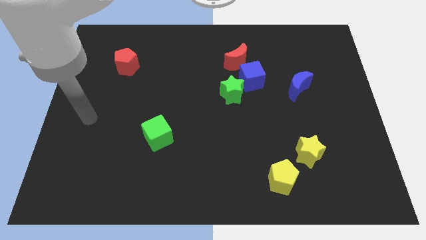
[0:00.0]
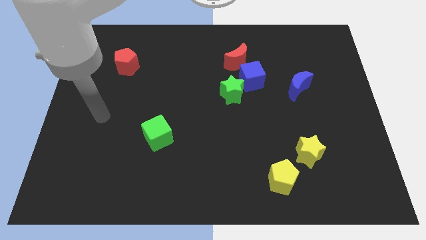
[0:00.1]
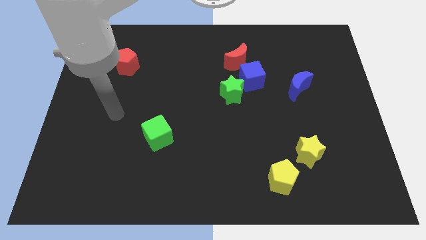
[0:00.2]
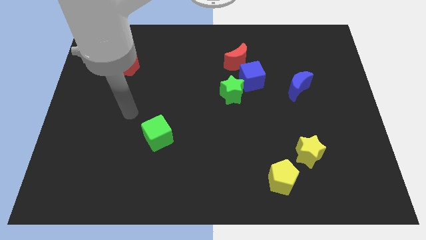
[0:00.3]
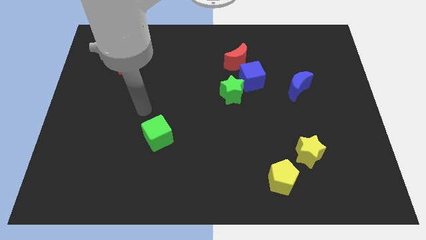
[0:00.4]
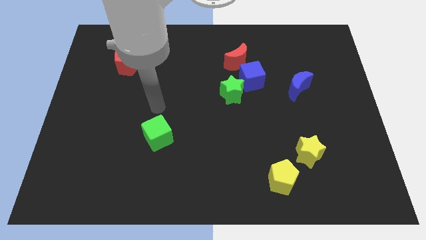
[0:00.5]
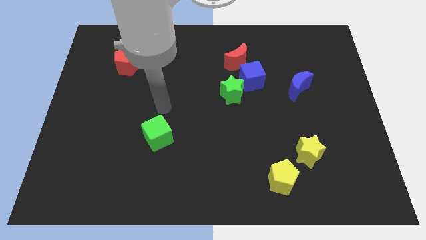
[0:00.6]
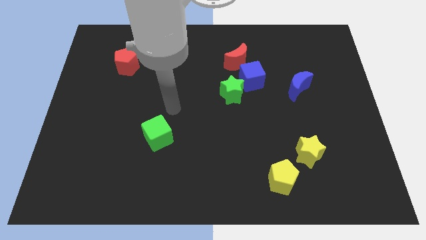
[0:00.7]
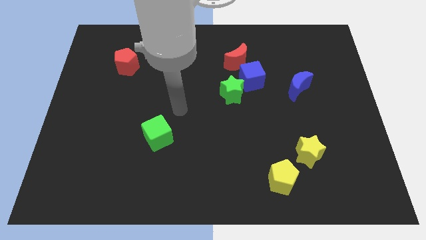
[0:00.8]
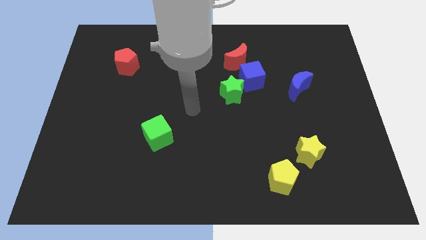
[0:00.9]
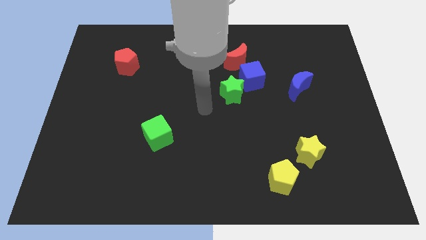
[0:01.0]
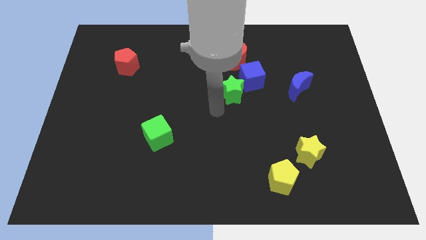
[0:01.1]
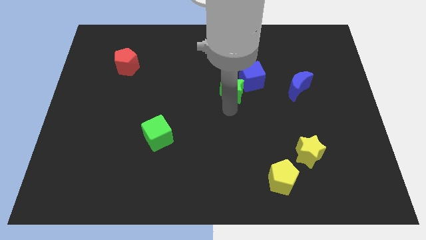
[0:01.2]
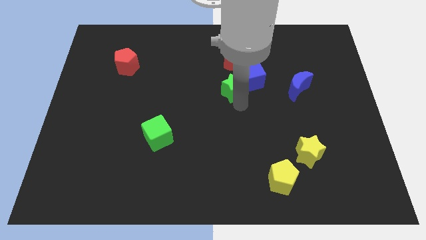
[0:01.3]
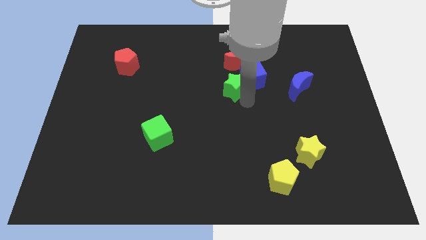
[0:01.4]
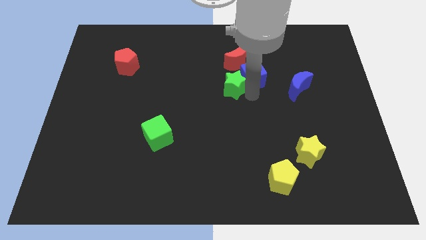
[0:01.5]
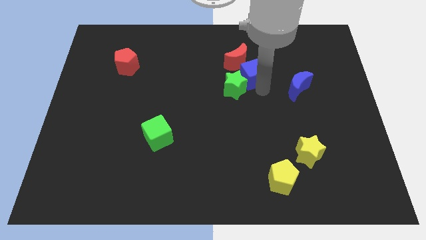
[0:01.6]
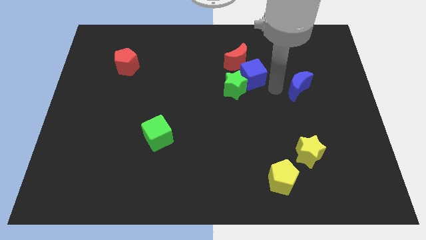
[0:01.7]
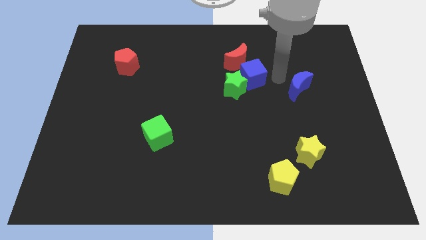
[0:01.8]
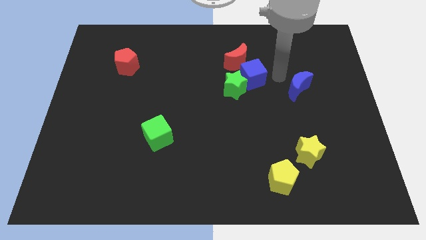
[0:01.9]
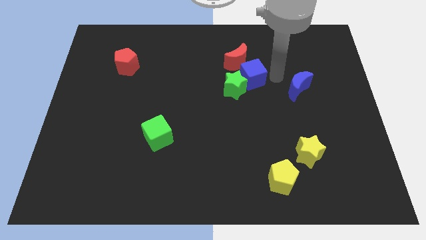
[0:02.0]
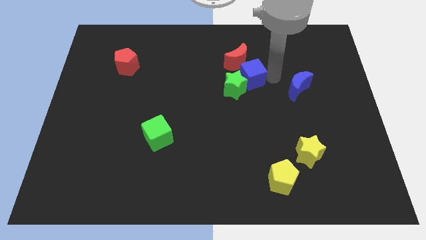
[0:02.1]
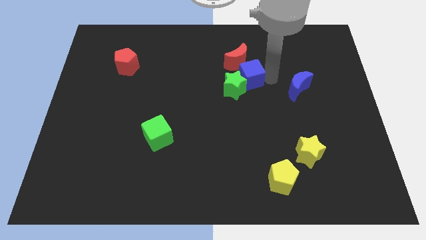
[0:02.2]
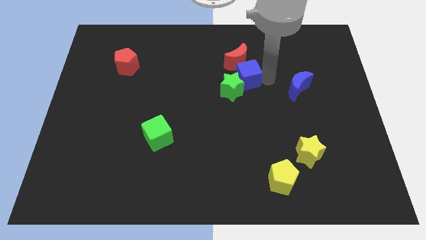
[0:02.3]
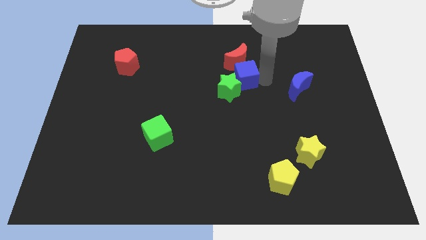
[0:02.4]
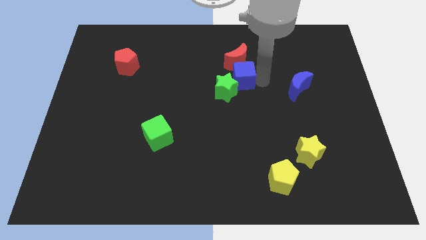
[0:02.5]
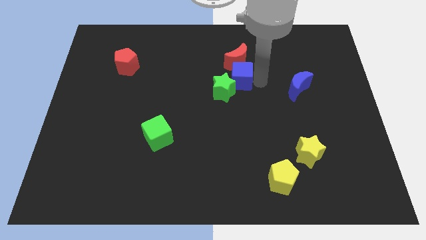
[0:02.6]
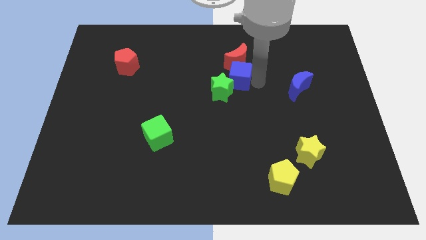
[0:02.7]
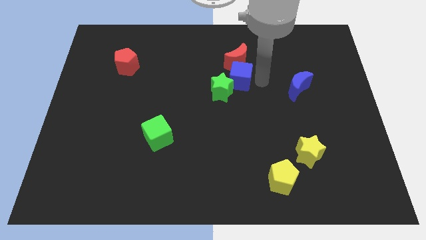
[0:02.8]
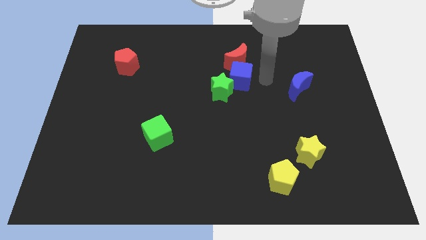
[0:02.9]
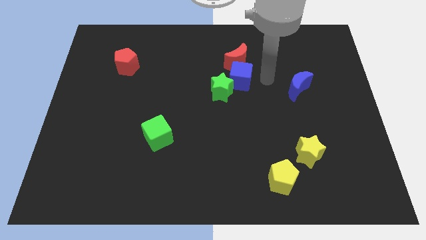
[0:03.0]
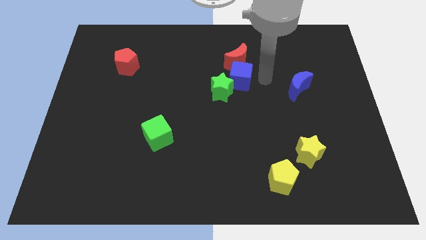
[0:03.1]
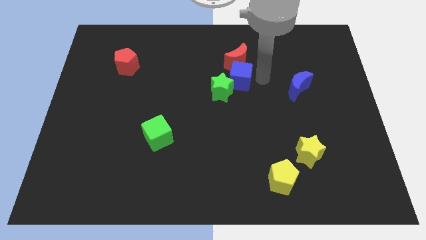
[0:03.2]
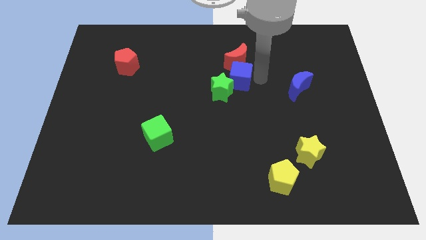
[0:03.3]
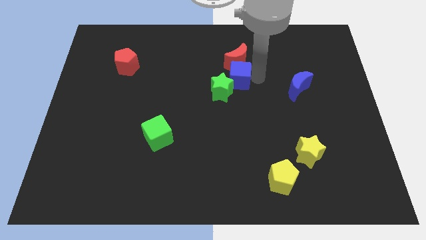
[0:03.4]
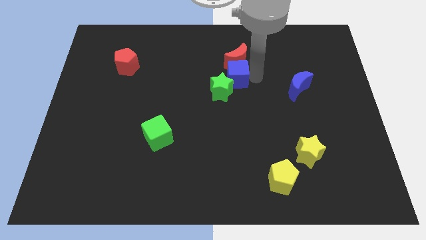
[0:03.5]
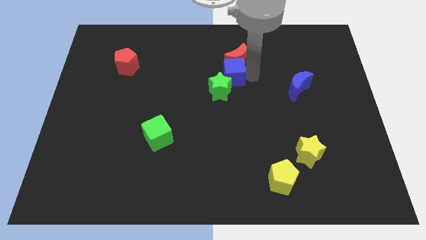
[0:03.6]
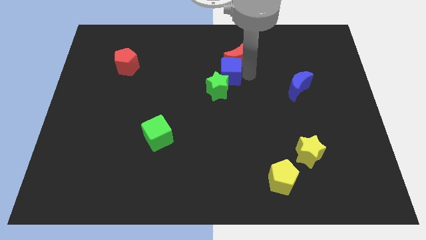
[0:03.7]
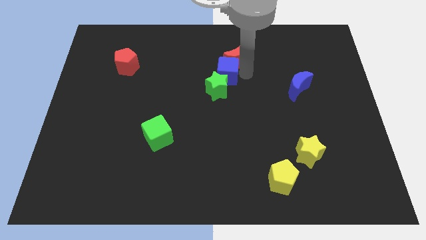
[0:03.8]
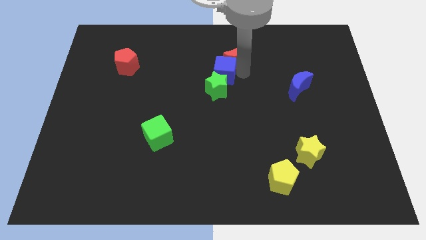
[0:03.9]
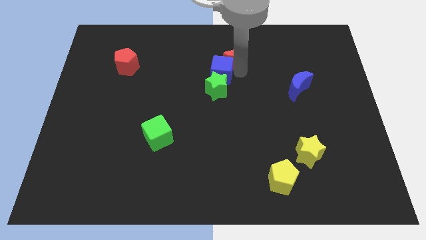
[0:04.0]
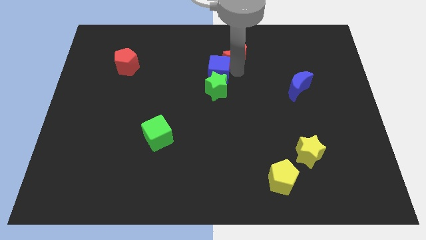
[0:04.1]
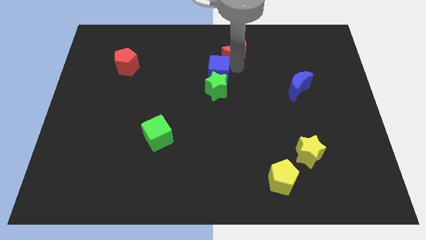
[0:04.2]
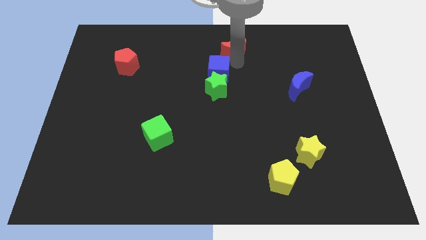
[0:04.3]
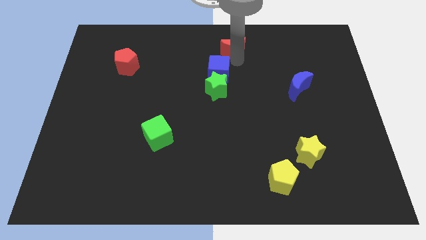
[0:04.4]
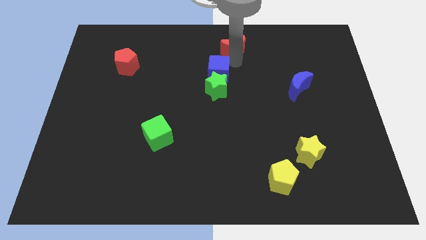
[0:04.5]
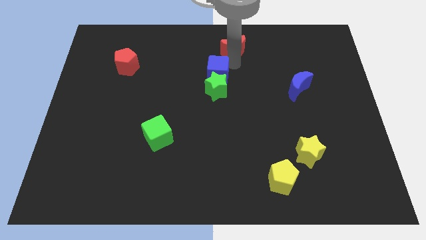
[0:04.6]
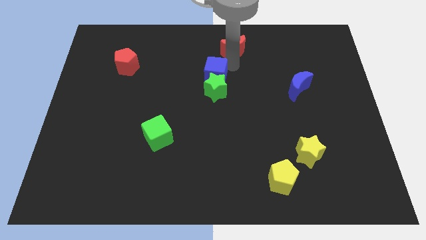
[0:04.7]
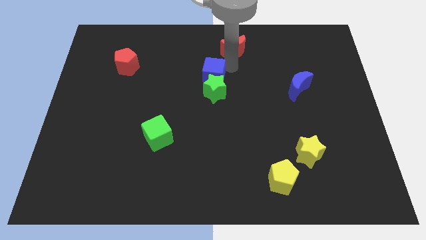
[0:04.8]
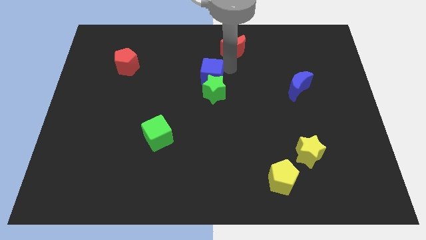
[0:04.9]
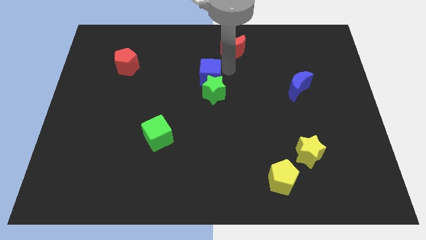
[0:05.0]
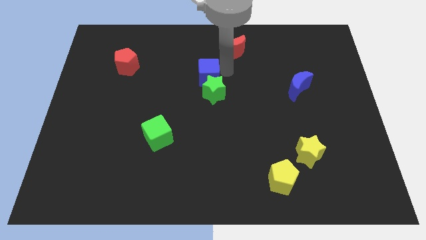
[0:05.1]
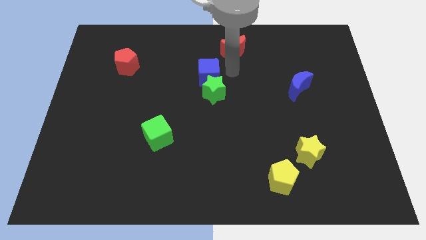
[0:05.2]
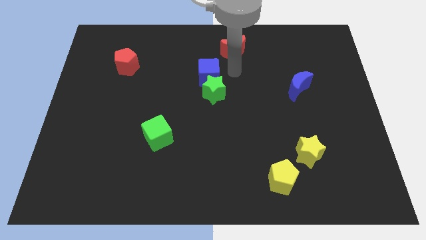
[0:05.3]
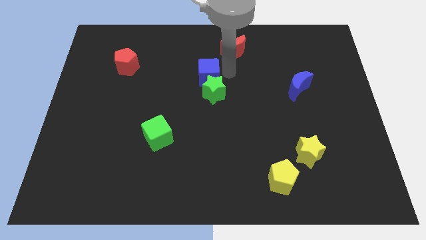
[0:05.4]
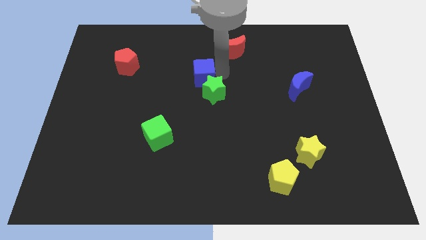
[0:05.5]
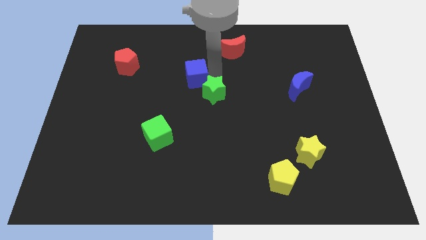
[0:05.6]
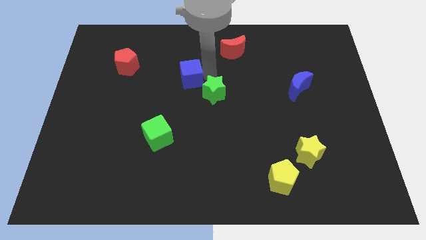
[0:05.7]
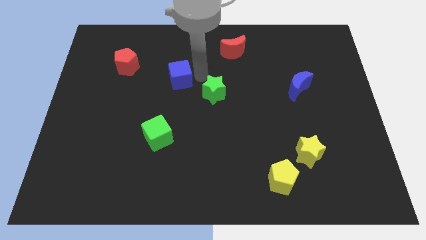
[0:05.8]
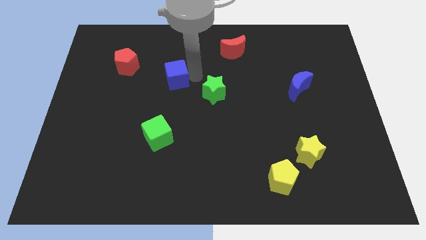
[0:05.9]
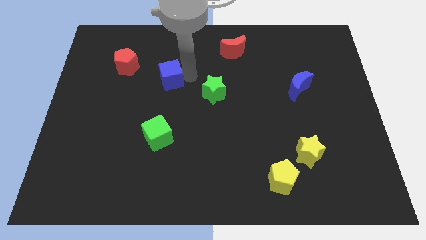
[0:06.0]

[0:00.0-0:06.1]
slide the blue cube left

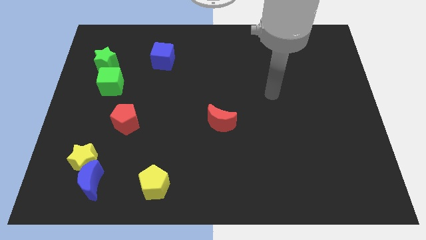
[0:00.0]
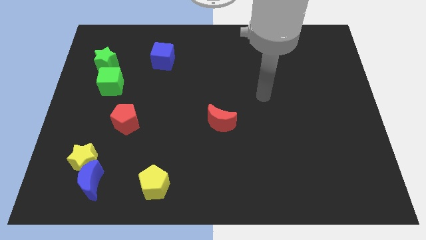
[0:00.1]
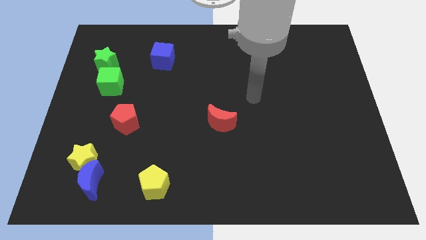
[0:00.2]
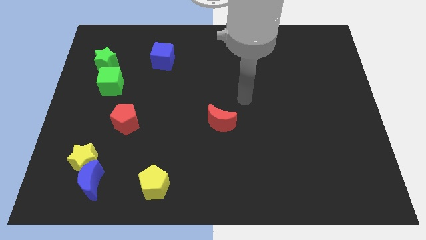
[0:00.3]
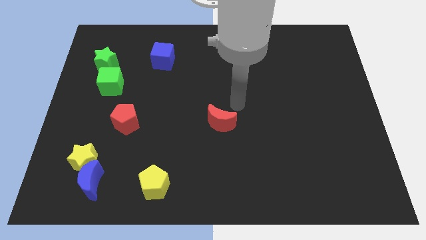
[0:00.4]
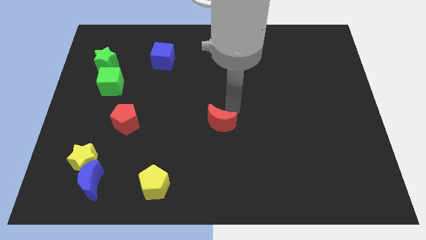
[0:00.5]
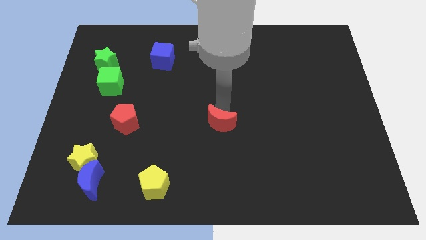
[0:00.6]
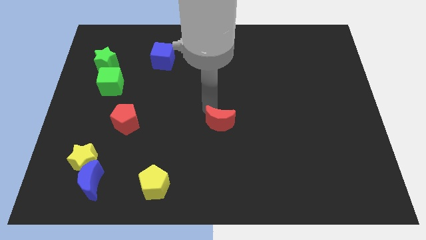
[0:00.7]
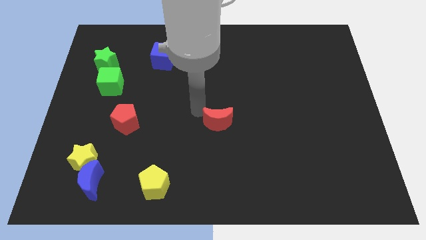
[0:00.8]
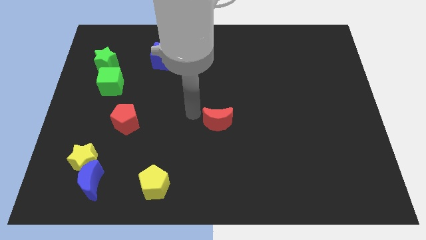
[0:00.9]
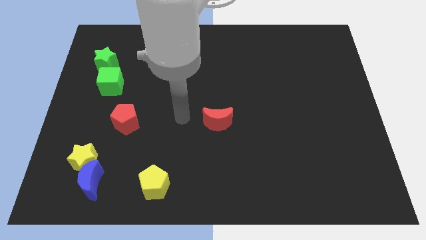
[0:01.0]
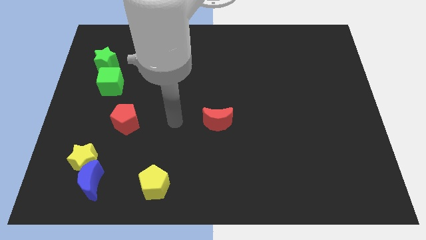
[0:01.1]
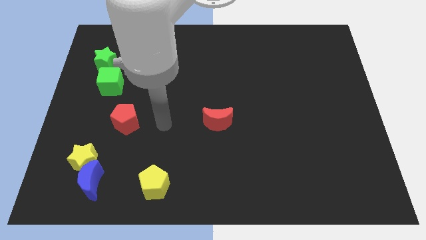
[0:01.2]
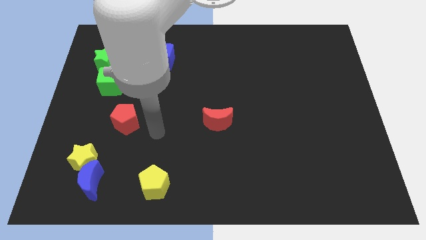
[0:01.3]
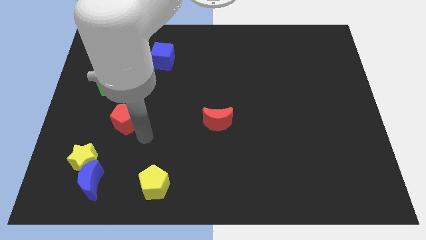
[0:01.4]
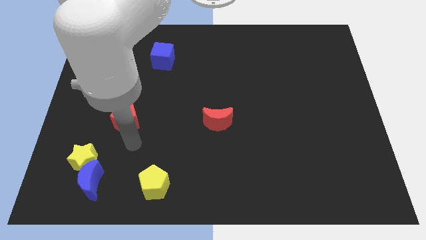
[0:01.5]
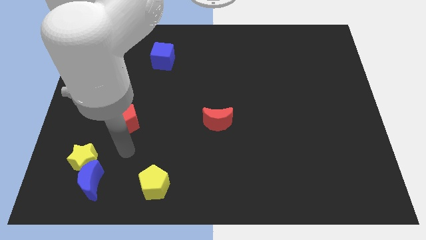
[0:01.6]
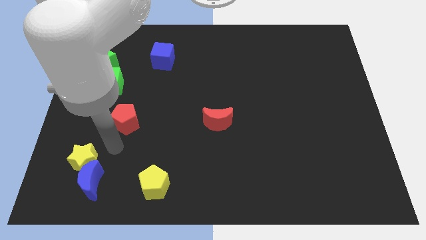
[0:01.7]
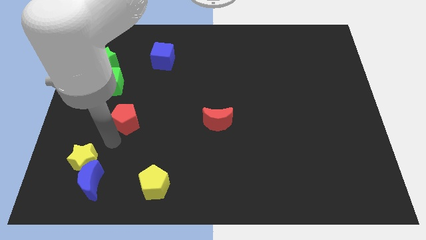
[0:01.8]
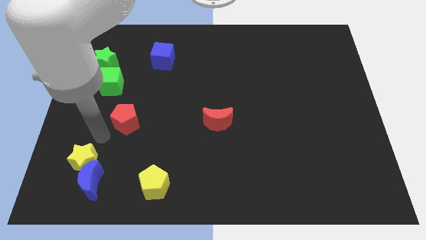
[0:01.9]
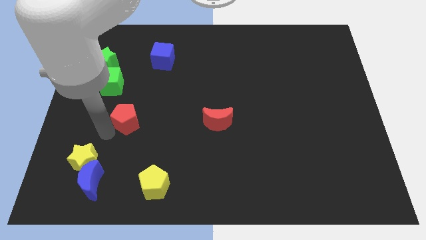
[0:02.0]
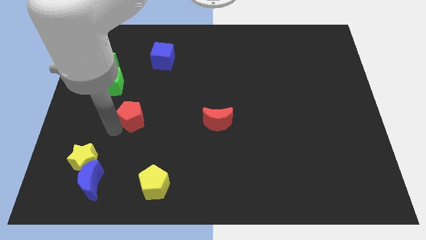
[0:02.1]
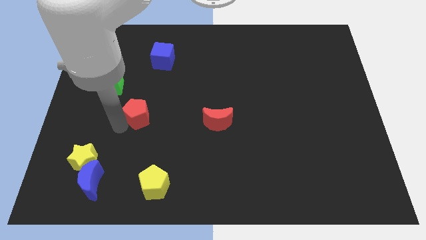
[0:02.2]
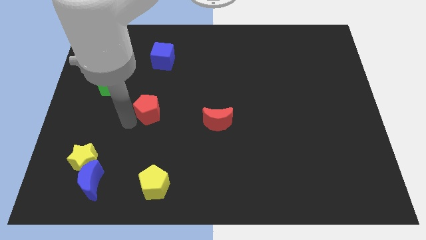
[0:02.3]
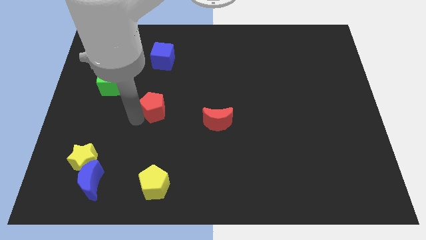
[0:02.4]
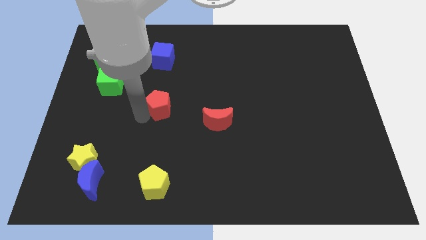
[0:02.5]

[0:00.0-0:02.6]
push the red pentagon up and right somewhat
